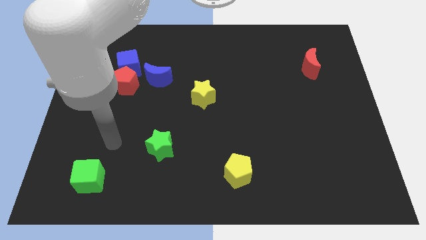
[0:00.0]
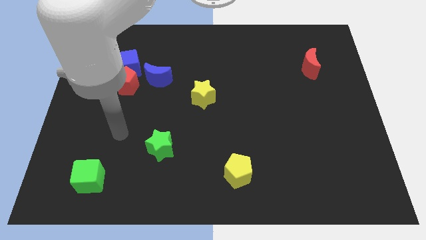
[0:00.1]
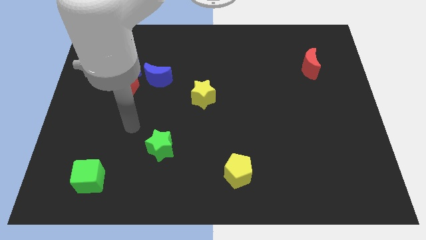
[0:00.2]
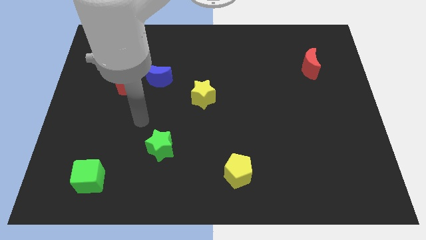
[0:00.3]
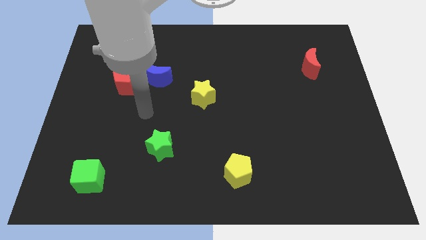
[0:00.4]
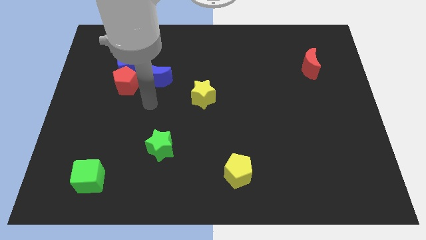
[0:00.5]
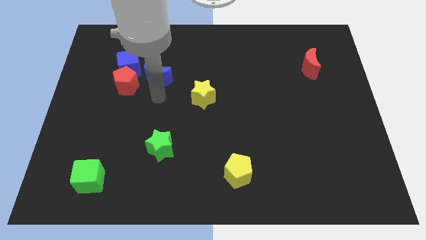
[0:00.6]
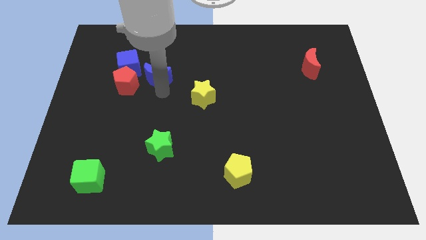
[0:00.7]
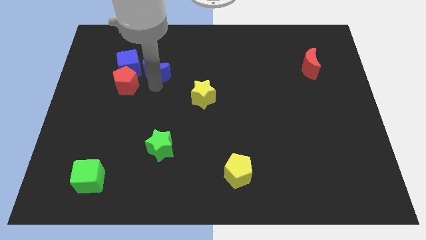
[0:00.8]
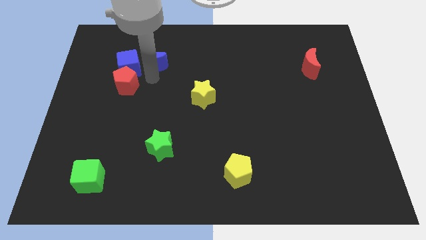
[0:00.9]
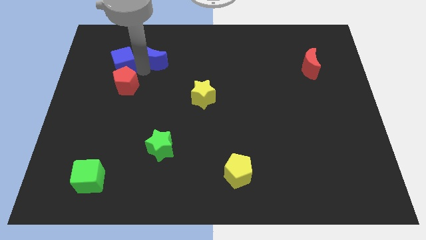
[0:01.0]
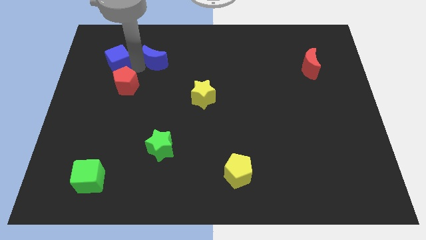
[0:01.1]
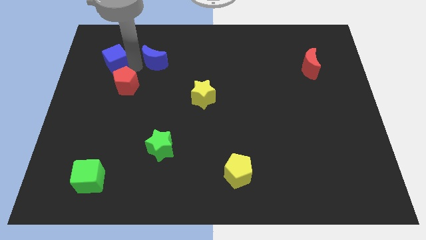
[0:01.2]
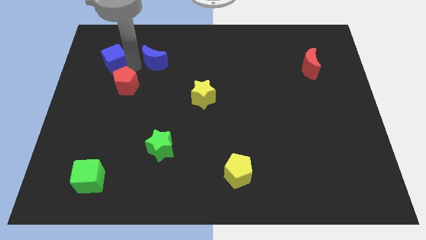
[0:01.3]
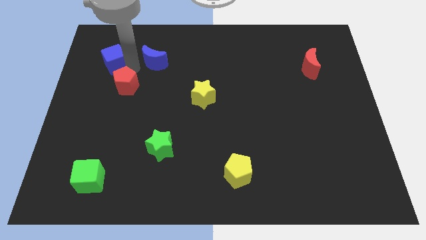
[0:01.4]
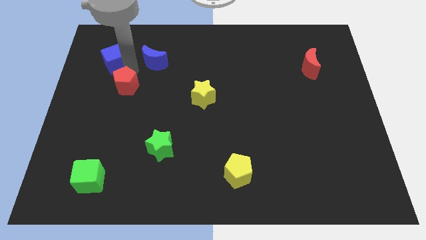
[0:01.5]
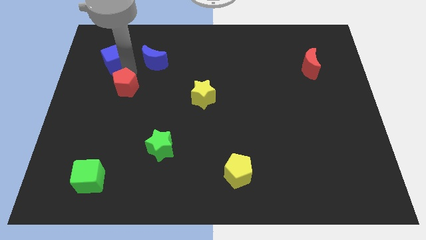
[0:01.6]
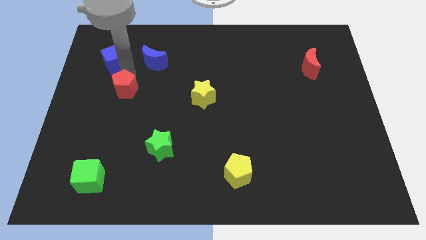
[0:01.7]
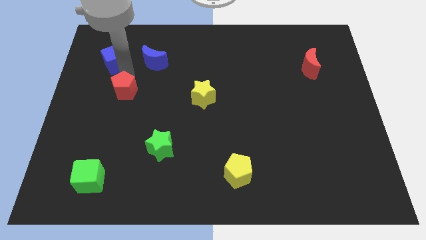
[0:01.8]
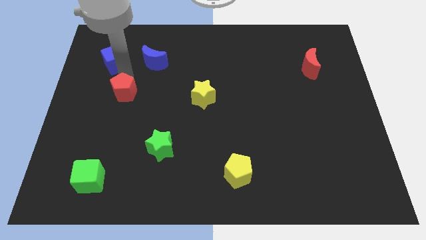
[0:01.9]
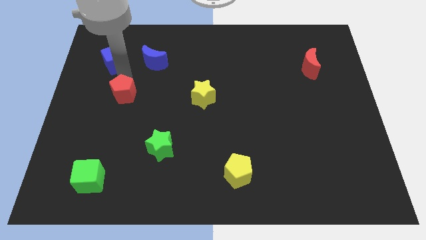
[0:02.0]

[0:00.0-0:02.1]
move the red pentagon away from the blue cube and blue moon

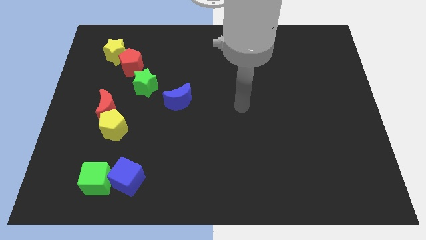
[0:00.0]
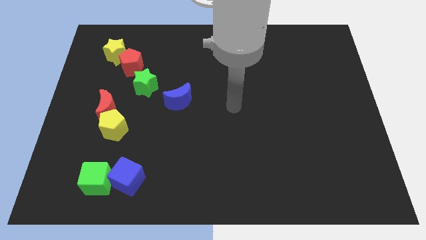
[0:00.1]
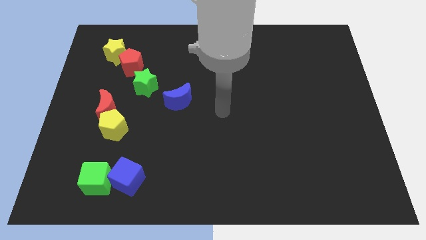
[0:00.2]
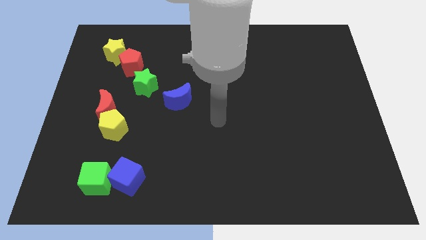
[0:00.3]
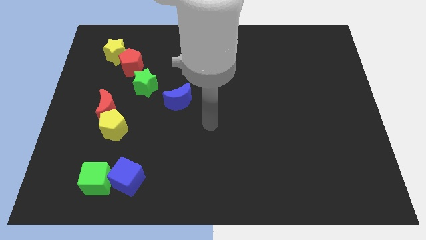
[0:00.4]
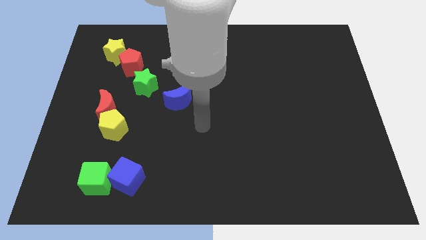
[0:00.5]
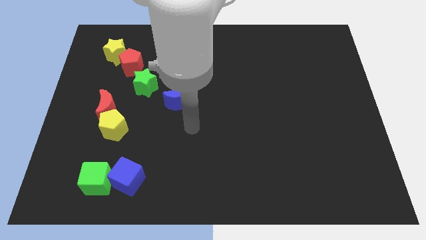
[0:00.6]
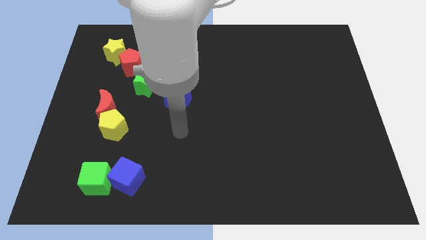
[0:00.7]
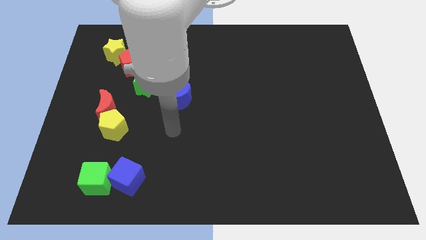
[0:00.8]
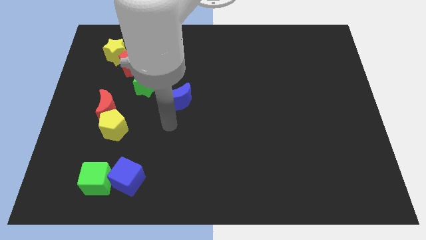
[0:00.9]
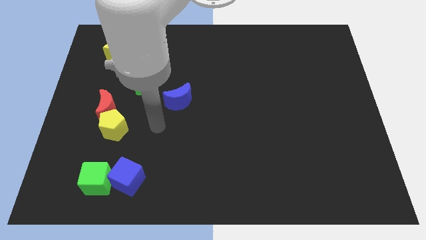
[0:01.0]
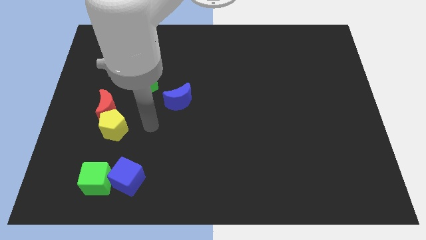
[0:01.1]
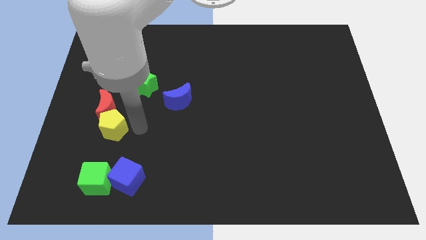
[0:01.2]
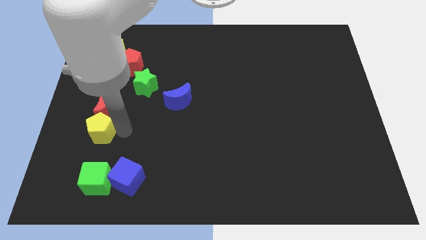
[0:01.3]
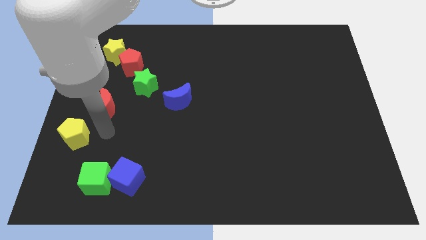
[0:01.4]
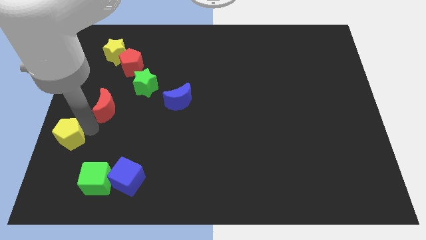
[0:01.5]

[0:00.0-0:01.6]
pull the red moon apart from the yellow pentagon

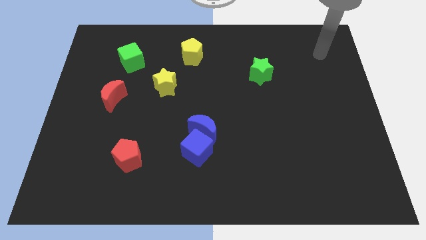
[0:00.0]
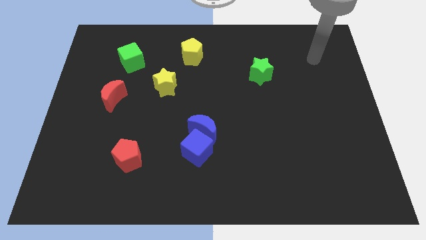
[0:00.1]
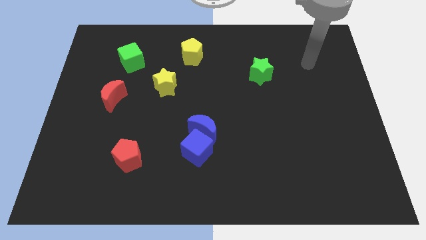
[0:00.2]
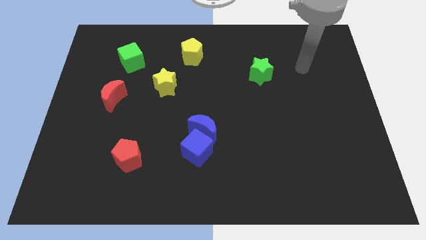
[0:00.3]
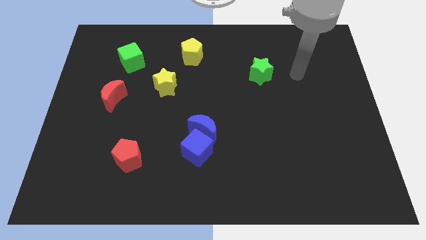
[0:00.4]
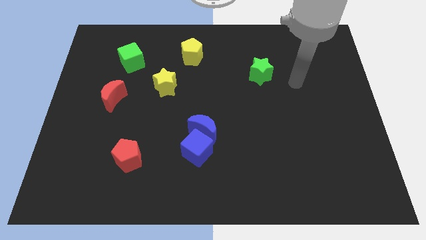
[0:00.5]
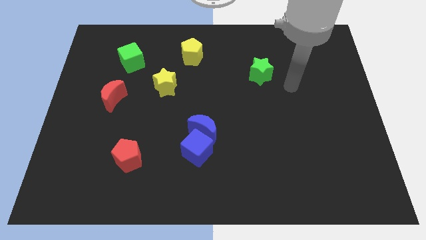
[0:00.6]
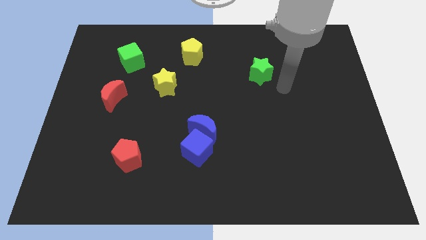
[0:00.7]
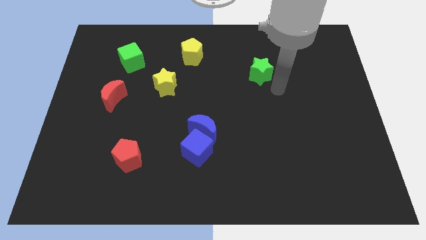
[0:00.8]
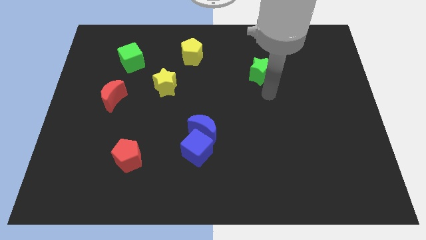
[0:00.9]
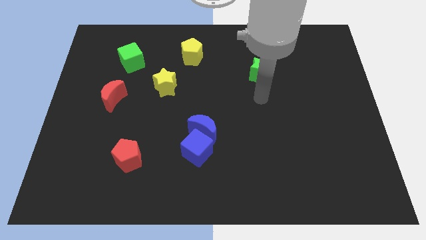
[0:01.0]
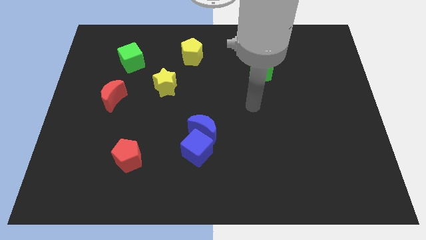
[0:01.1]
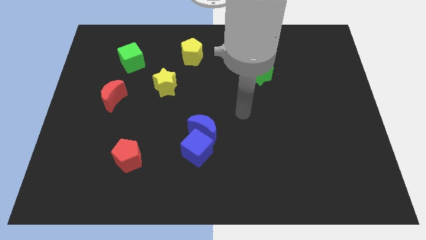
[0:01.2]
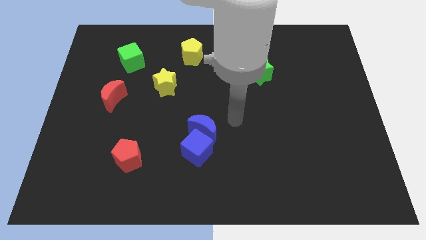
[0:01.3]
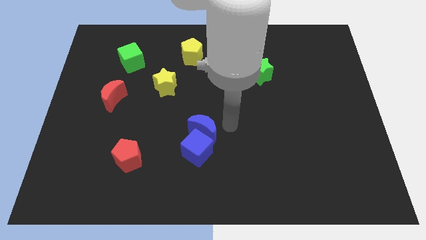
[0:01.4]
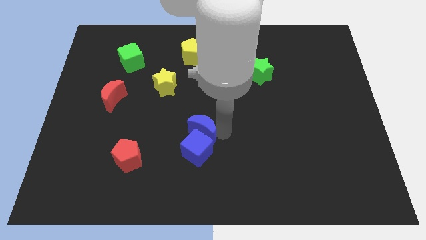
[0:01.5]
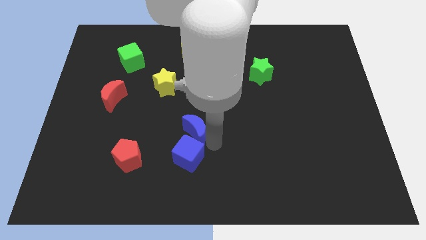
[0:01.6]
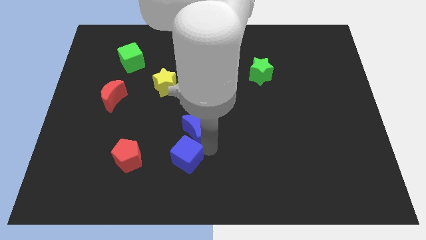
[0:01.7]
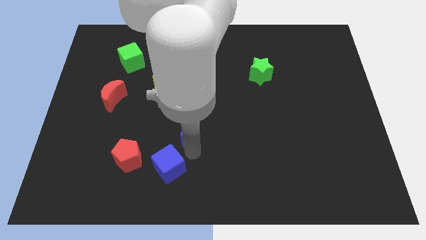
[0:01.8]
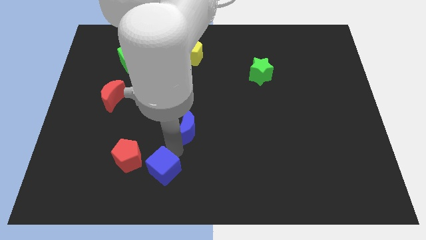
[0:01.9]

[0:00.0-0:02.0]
move the blue moon away from the blue cube

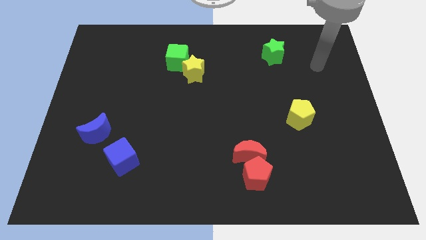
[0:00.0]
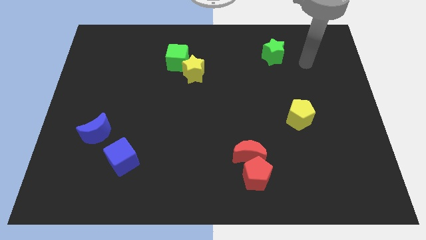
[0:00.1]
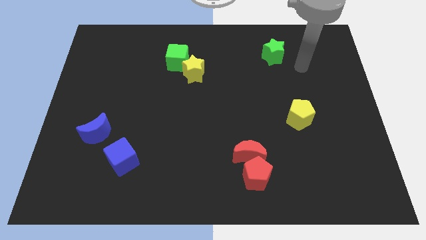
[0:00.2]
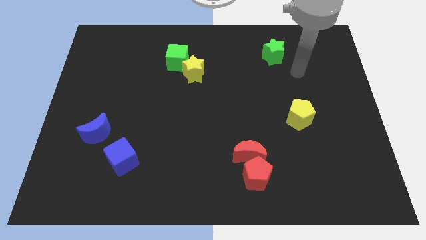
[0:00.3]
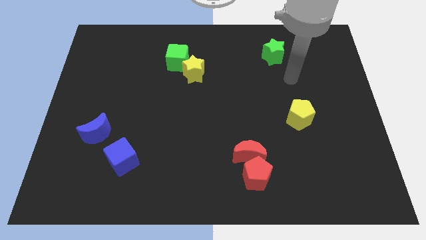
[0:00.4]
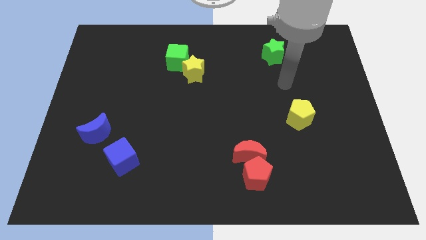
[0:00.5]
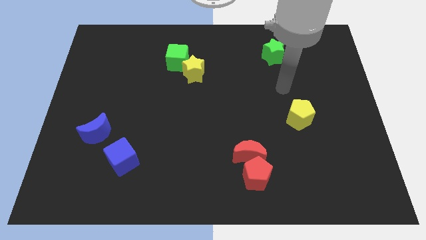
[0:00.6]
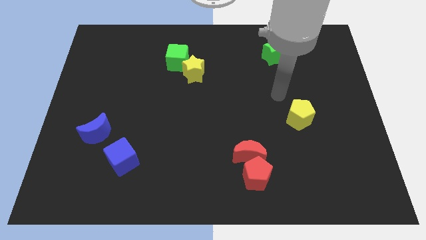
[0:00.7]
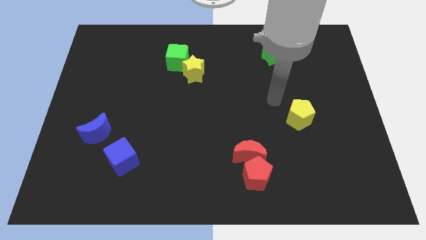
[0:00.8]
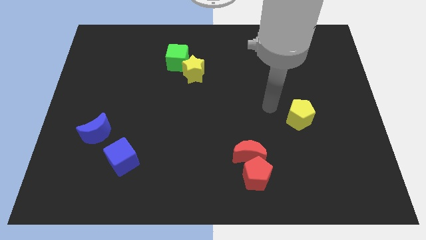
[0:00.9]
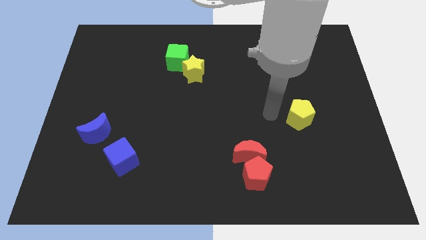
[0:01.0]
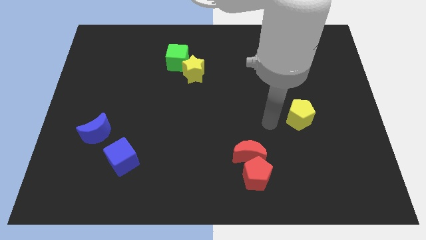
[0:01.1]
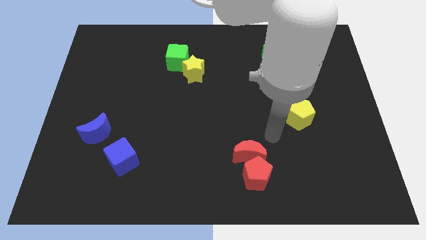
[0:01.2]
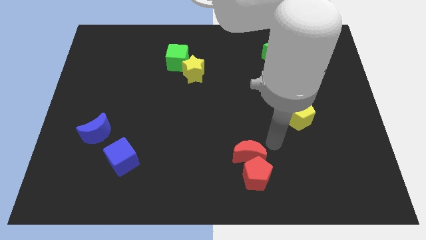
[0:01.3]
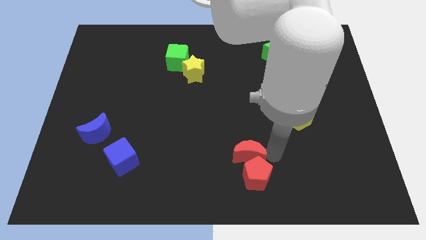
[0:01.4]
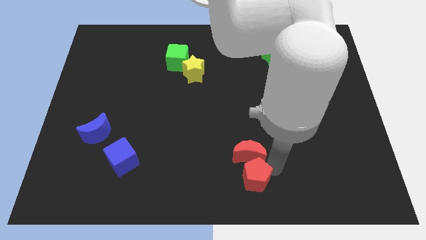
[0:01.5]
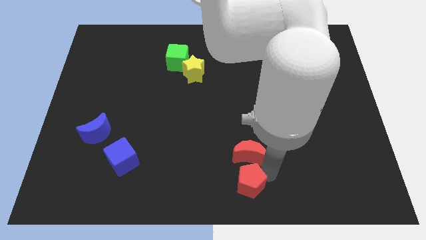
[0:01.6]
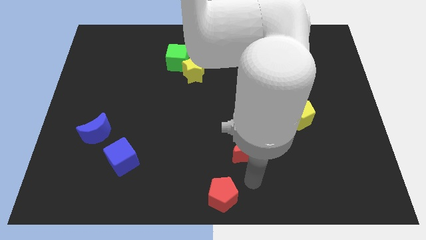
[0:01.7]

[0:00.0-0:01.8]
pull the red moon apart from the red pentagon

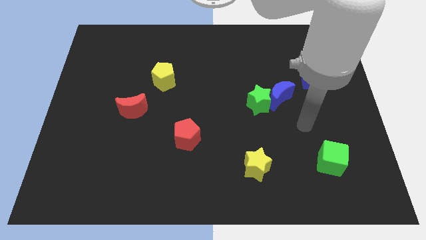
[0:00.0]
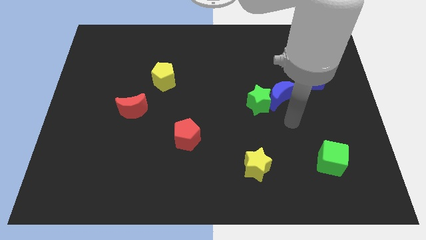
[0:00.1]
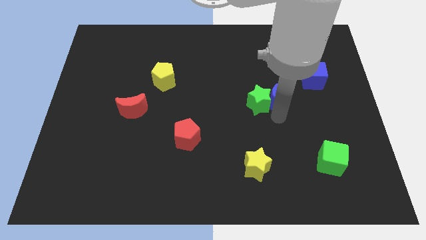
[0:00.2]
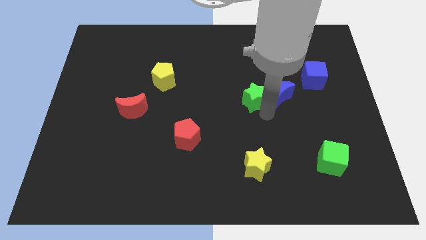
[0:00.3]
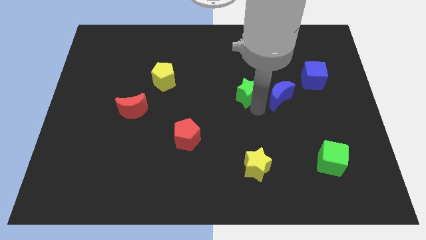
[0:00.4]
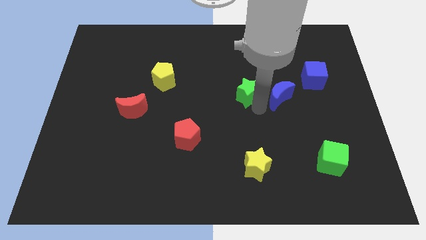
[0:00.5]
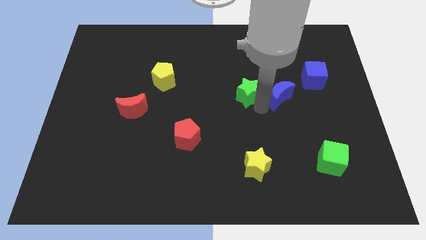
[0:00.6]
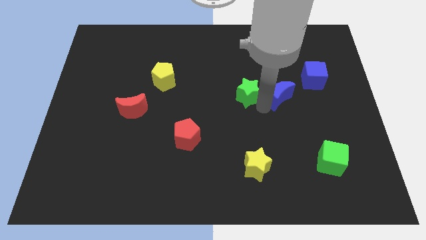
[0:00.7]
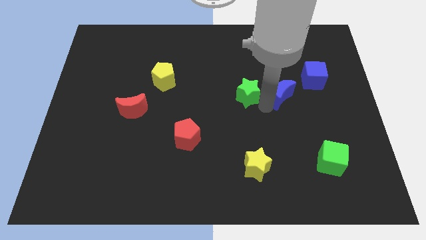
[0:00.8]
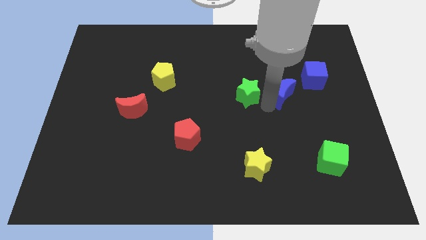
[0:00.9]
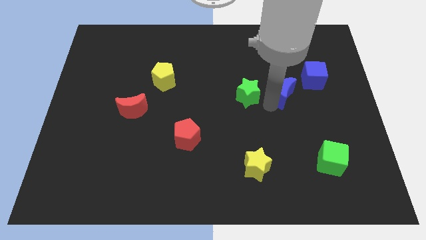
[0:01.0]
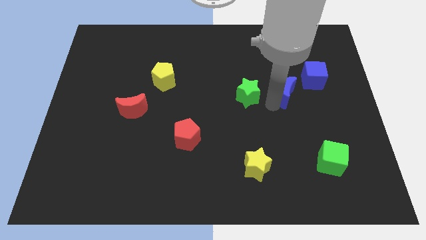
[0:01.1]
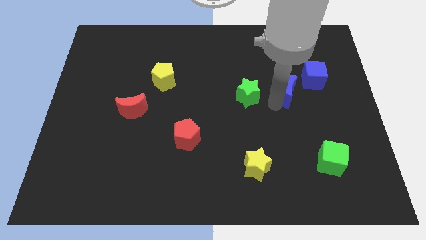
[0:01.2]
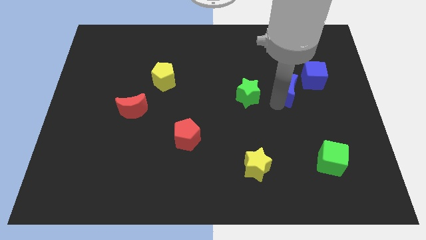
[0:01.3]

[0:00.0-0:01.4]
pull the blue moon apart from the green star

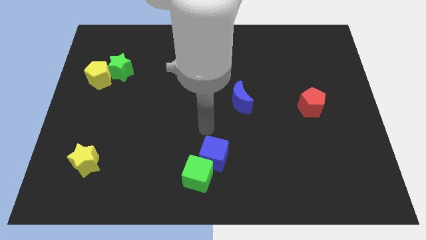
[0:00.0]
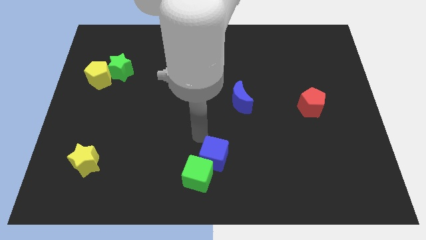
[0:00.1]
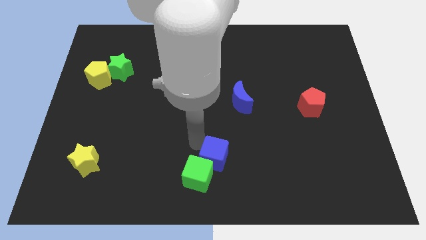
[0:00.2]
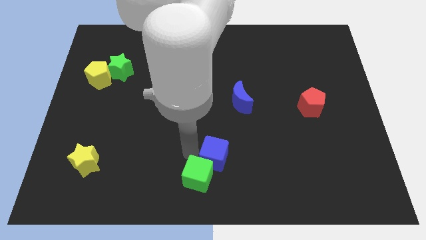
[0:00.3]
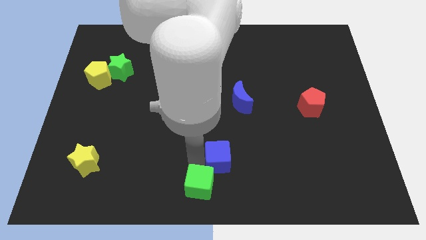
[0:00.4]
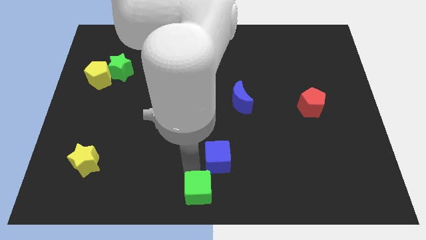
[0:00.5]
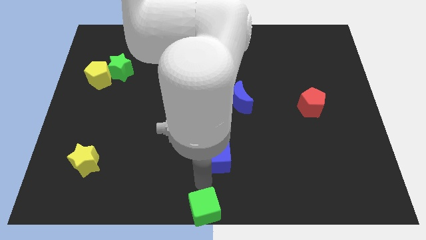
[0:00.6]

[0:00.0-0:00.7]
move the blue cube away from the green cube
